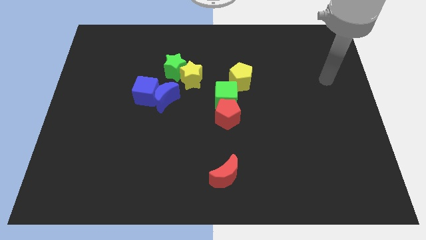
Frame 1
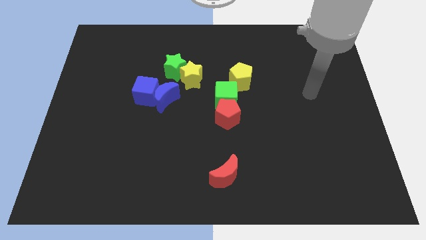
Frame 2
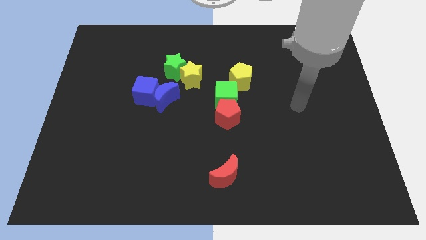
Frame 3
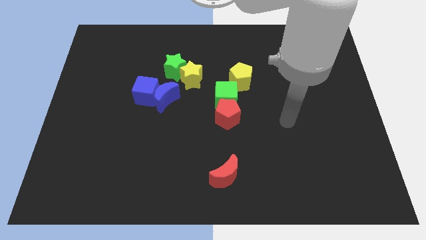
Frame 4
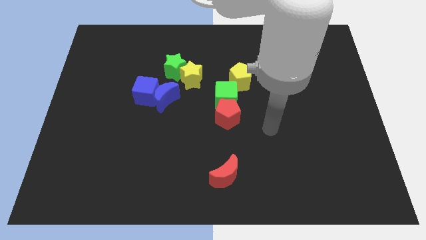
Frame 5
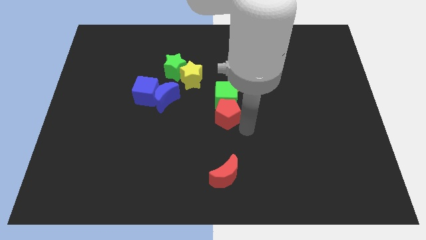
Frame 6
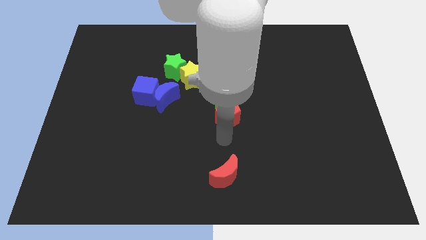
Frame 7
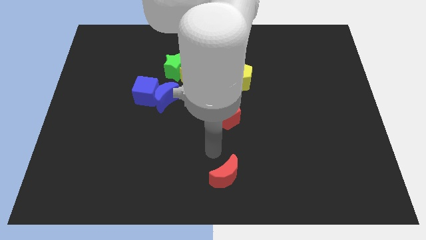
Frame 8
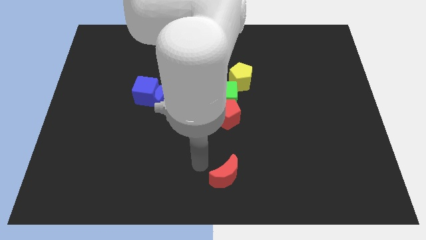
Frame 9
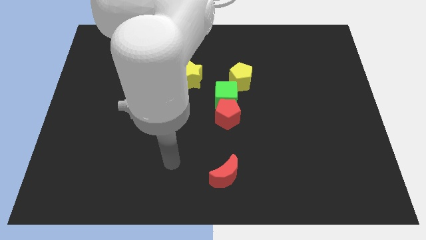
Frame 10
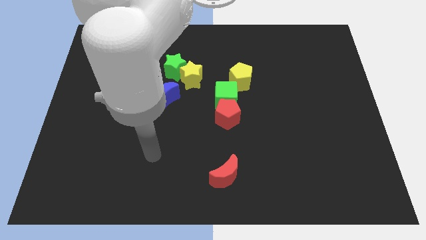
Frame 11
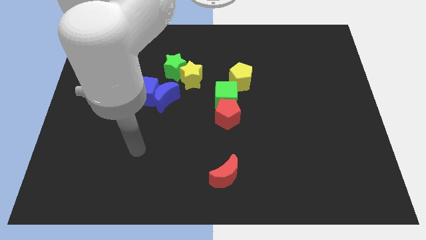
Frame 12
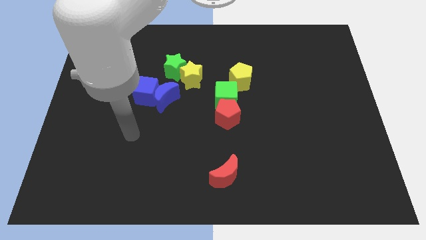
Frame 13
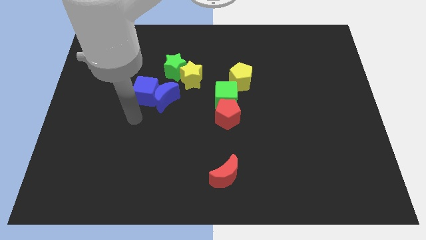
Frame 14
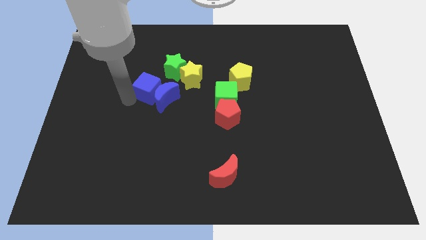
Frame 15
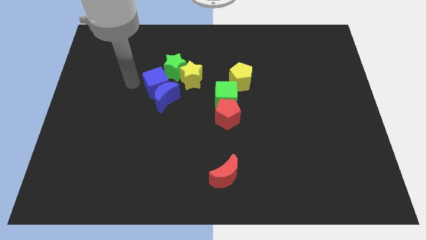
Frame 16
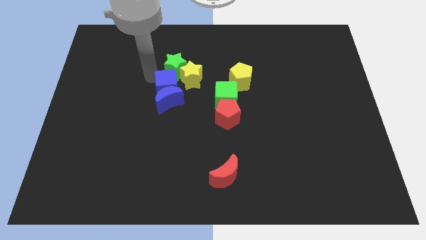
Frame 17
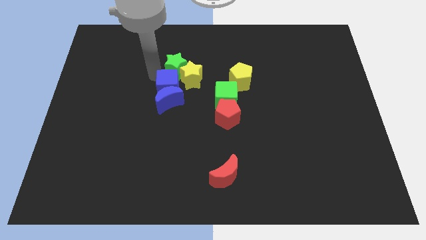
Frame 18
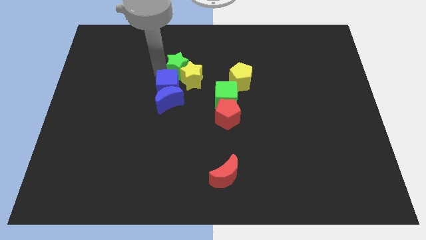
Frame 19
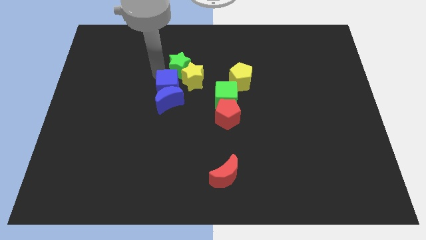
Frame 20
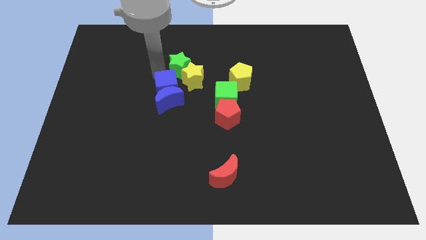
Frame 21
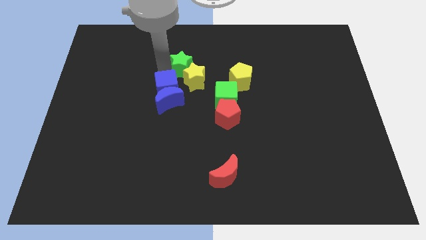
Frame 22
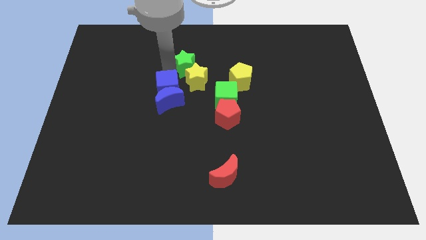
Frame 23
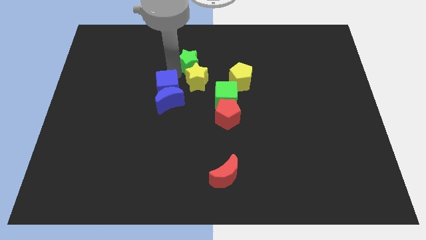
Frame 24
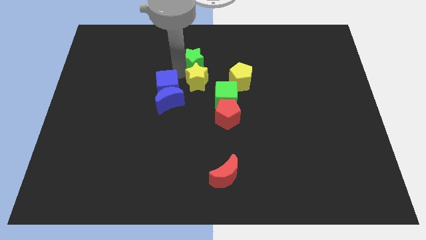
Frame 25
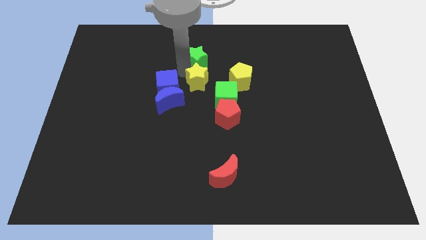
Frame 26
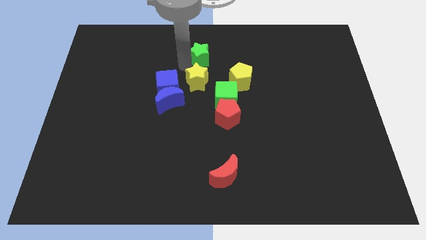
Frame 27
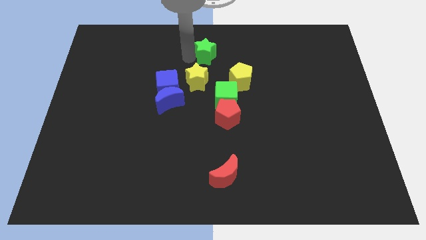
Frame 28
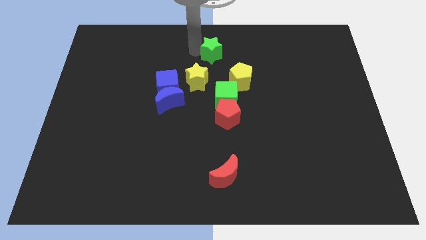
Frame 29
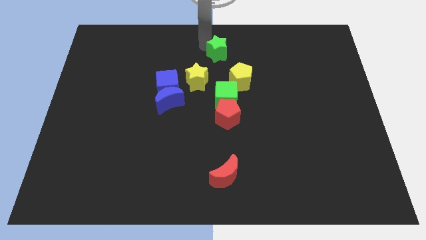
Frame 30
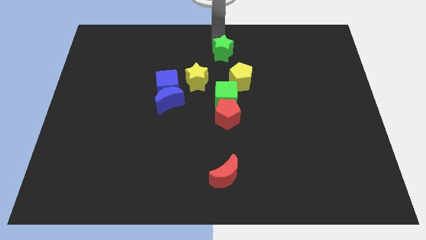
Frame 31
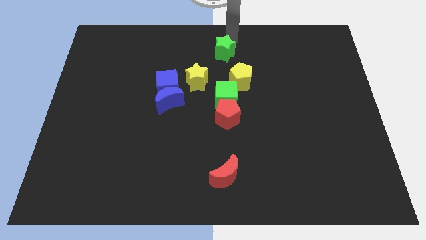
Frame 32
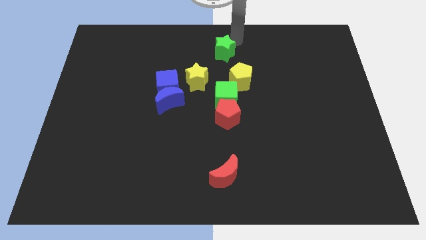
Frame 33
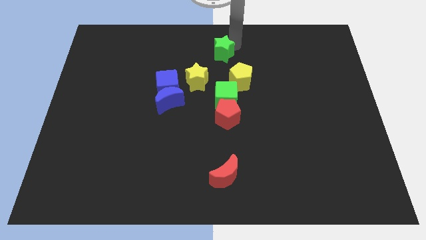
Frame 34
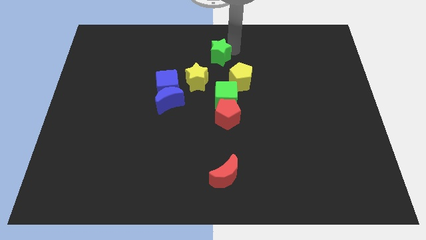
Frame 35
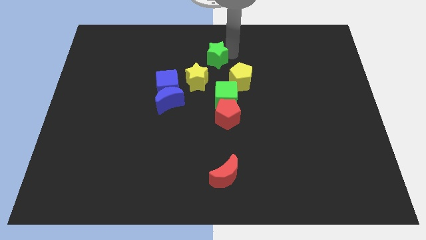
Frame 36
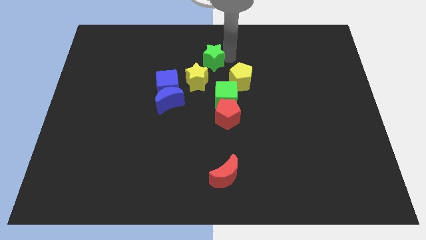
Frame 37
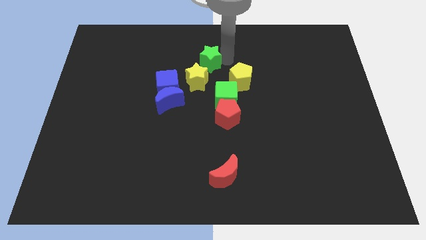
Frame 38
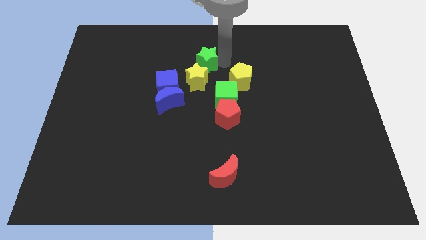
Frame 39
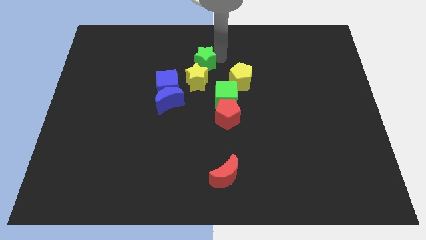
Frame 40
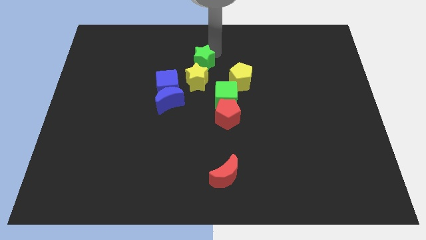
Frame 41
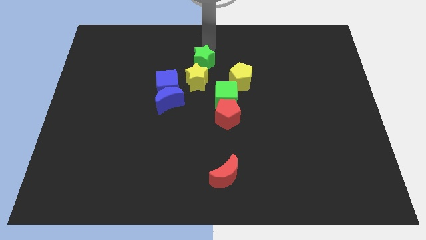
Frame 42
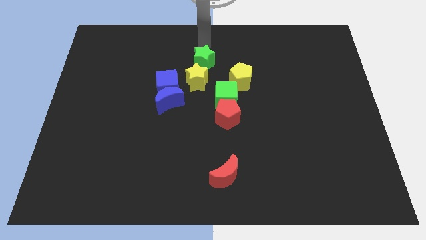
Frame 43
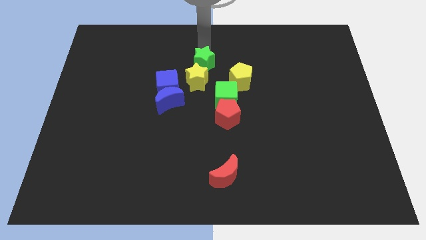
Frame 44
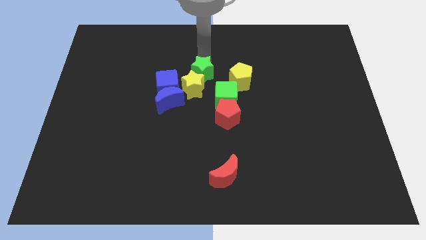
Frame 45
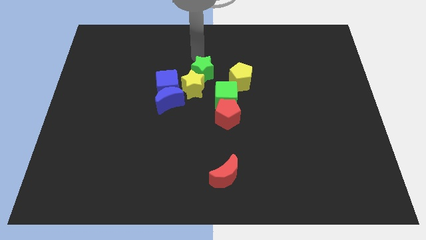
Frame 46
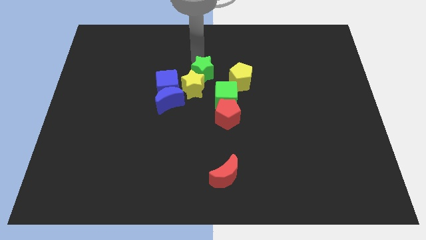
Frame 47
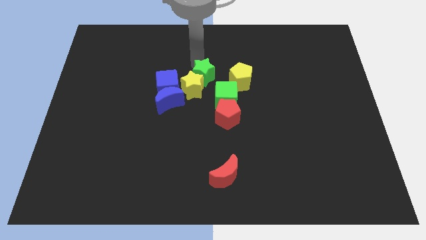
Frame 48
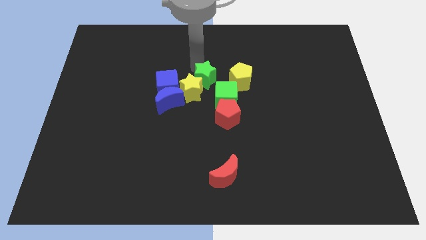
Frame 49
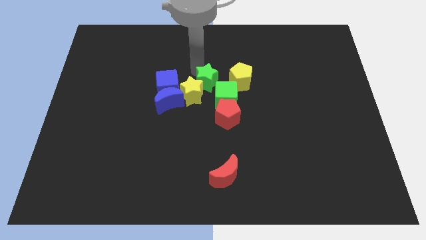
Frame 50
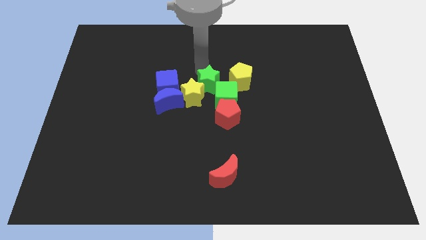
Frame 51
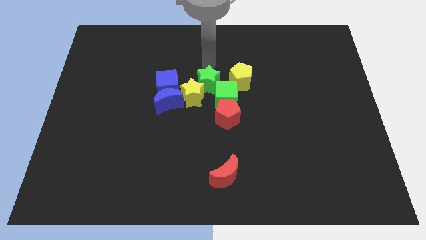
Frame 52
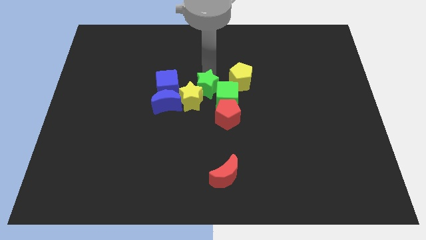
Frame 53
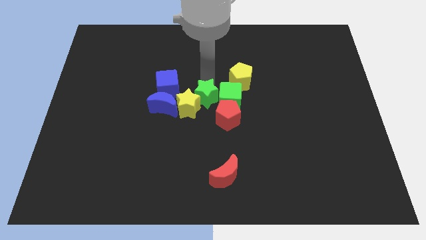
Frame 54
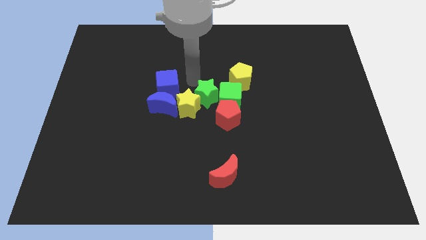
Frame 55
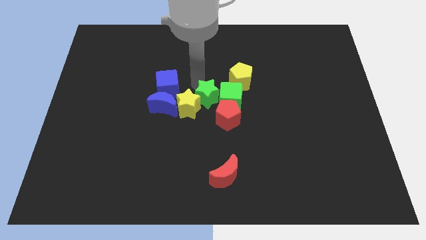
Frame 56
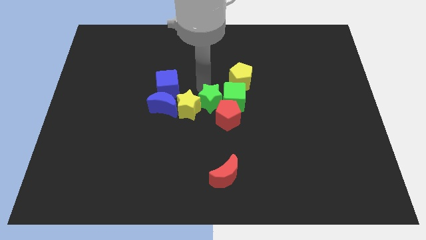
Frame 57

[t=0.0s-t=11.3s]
slide the green star close to the red pentagon

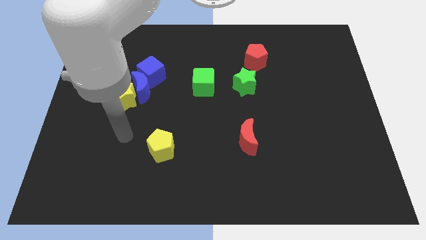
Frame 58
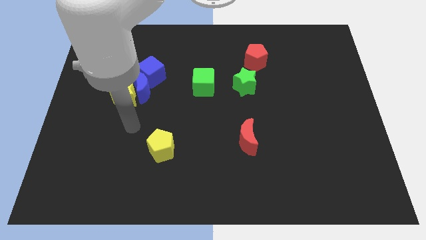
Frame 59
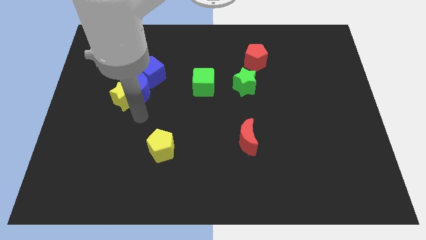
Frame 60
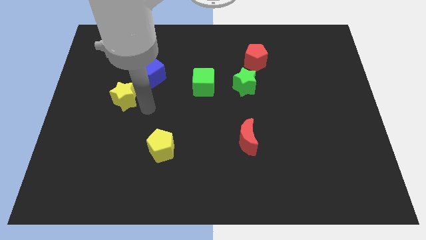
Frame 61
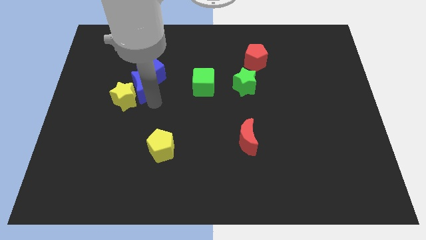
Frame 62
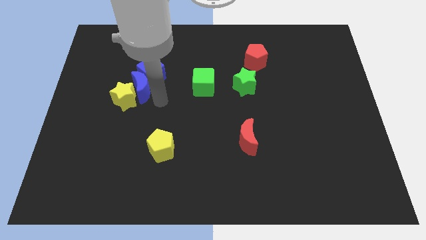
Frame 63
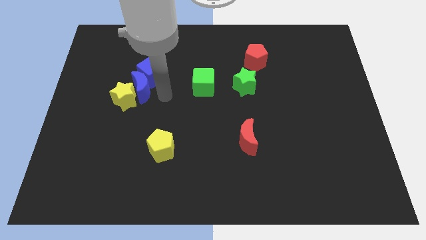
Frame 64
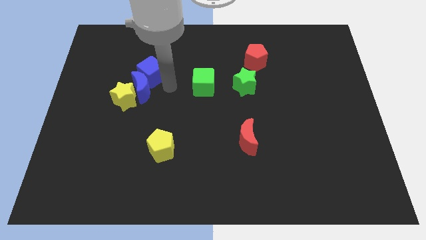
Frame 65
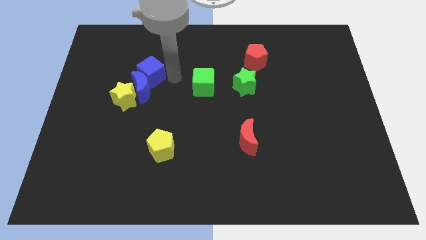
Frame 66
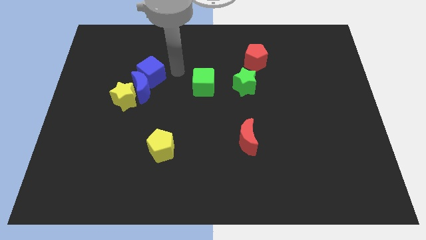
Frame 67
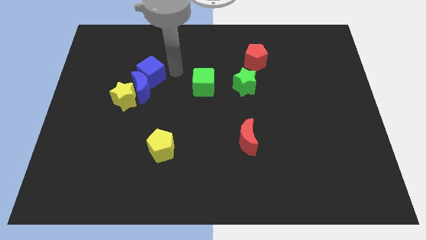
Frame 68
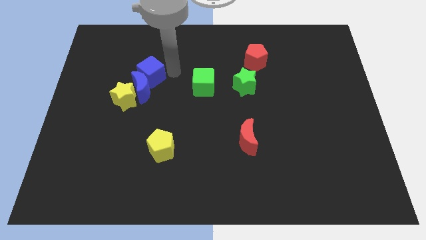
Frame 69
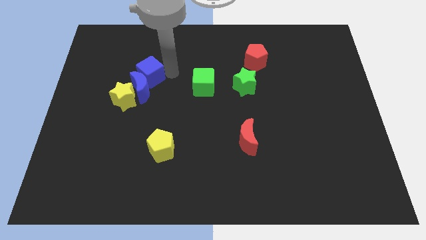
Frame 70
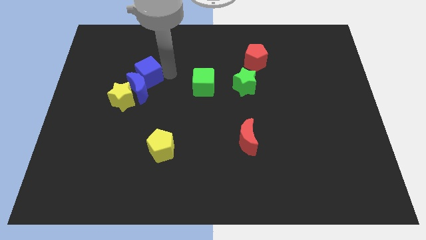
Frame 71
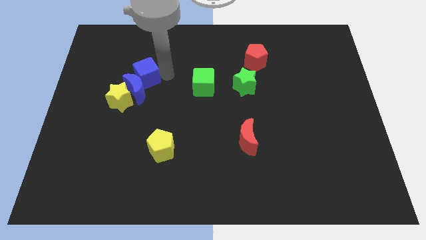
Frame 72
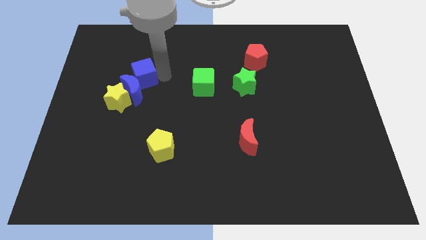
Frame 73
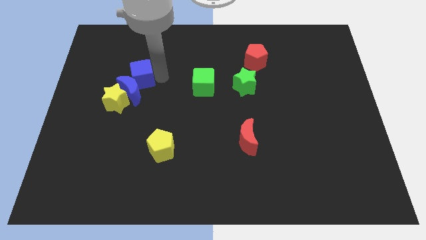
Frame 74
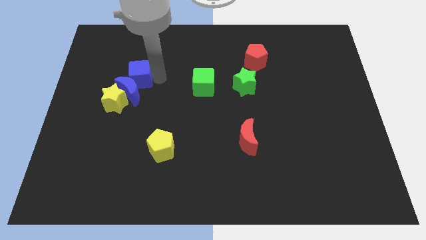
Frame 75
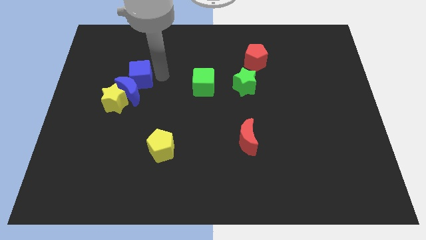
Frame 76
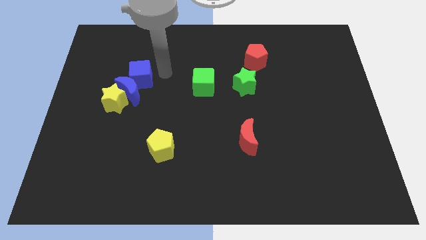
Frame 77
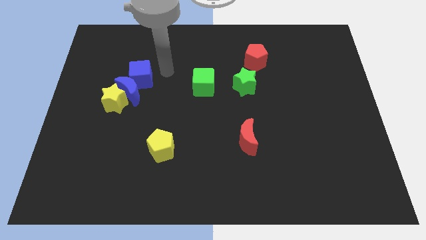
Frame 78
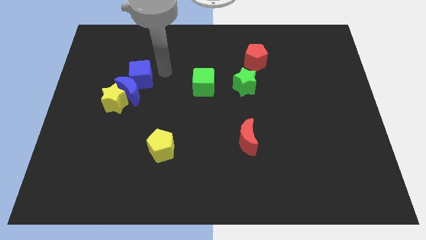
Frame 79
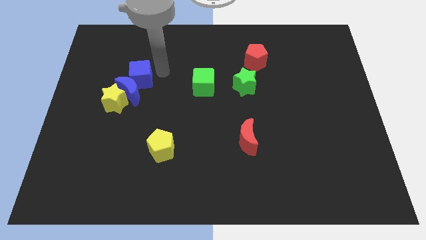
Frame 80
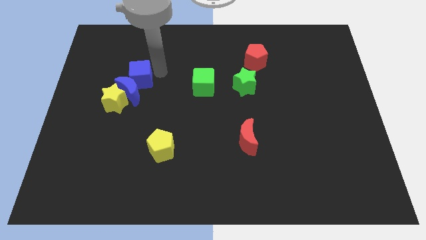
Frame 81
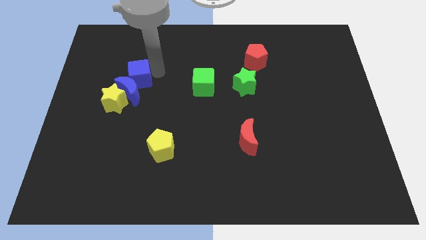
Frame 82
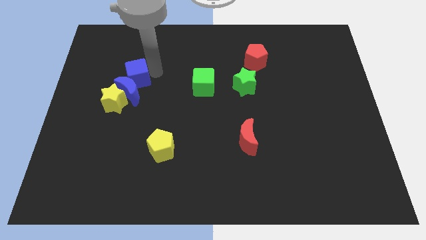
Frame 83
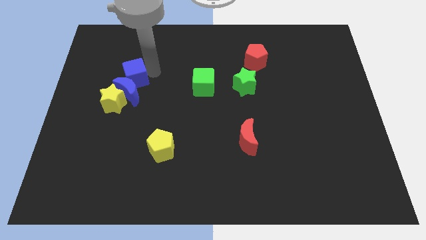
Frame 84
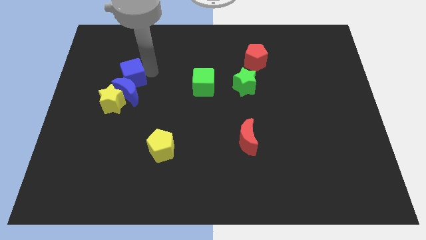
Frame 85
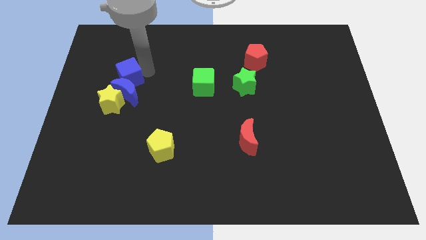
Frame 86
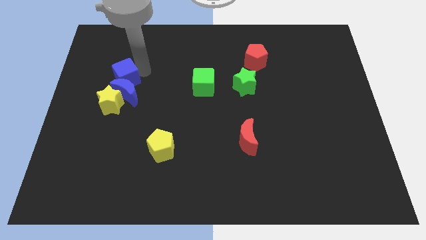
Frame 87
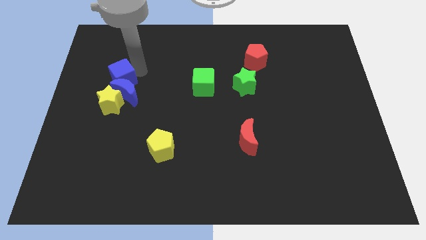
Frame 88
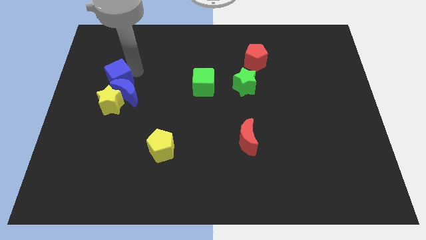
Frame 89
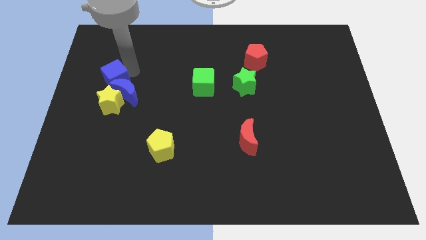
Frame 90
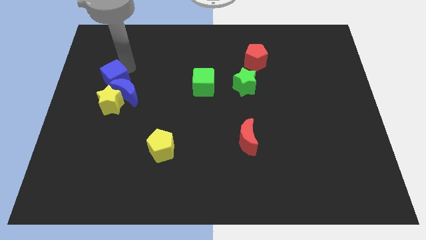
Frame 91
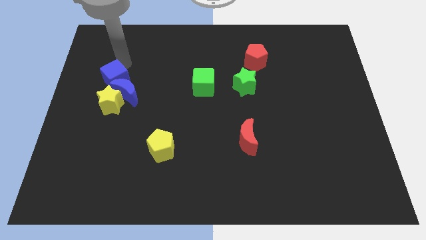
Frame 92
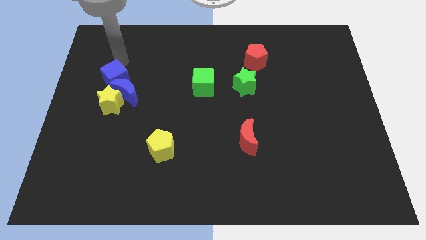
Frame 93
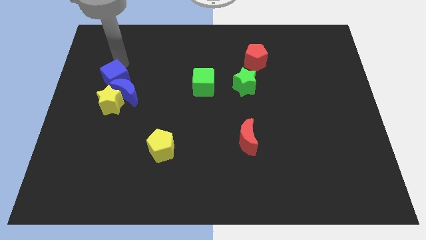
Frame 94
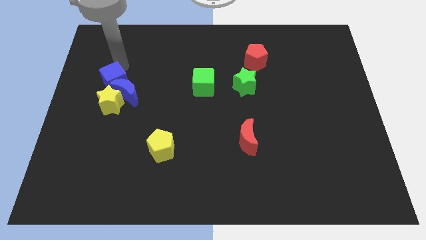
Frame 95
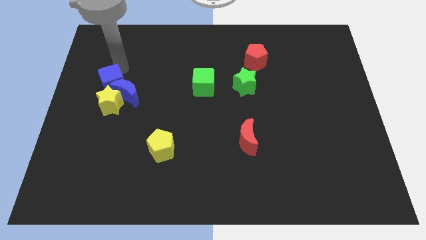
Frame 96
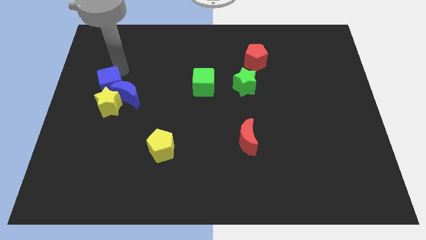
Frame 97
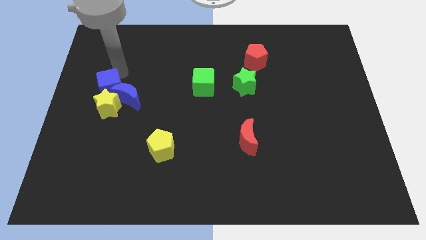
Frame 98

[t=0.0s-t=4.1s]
move the blue cube next to the yellow star
